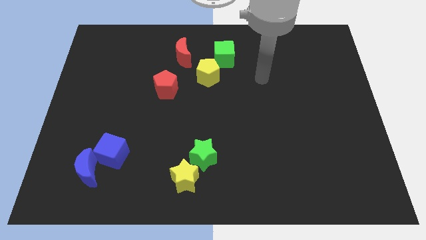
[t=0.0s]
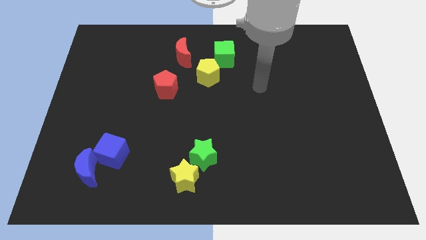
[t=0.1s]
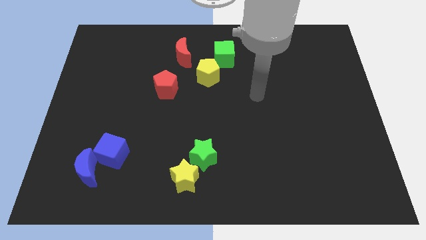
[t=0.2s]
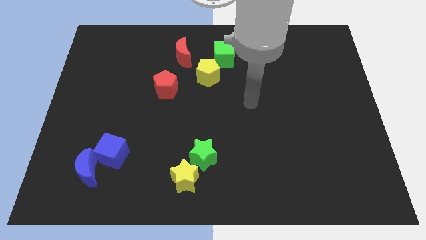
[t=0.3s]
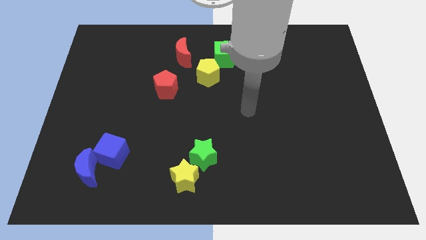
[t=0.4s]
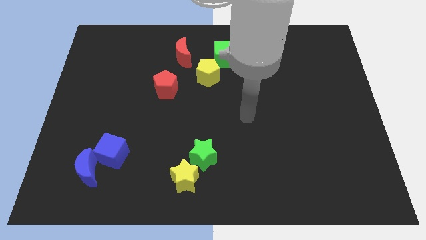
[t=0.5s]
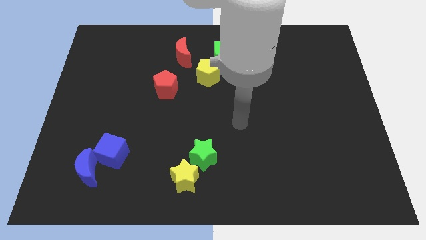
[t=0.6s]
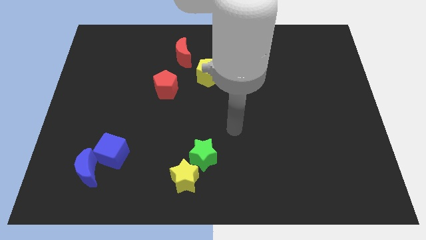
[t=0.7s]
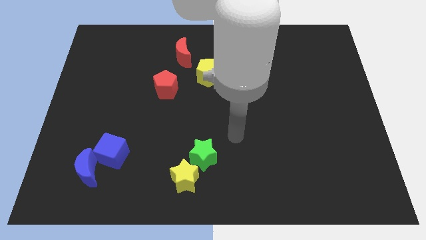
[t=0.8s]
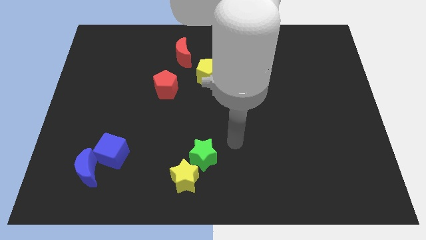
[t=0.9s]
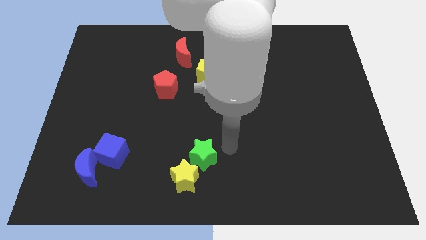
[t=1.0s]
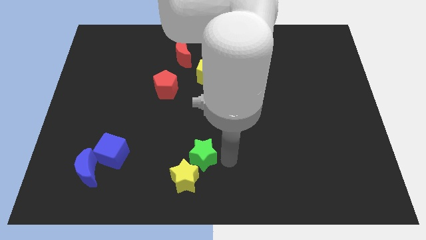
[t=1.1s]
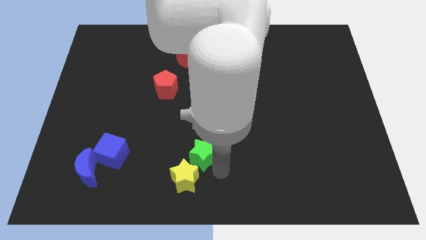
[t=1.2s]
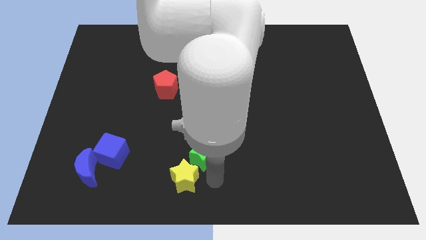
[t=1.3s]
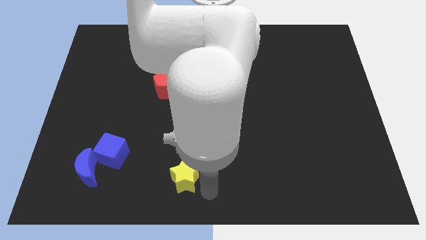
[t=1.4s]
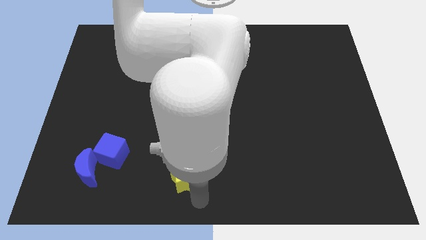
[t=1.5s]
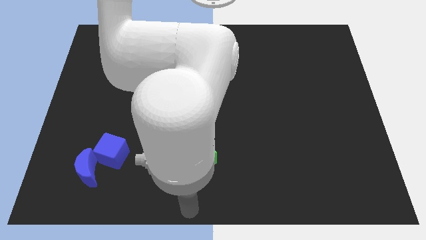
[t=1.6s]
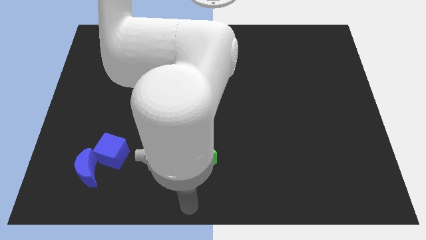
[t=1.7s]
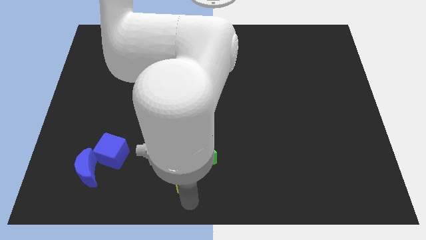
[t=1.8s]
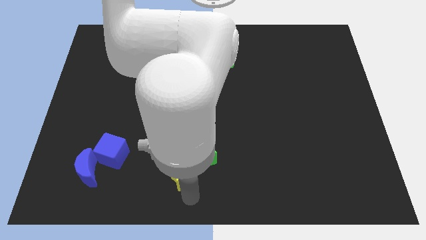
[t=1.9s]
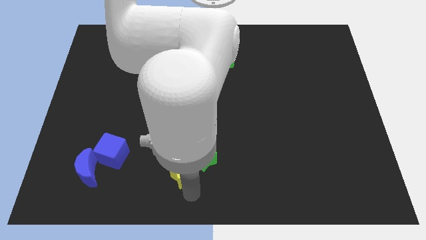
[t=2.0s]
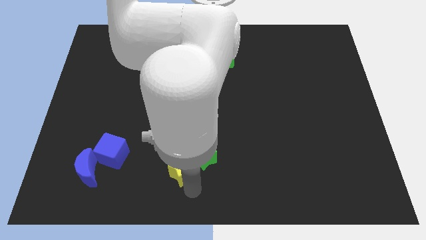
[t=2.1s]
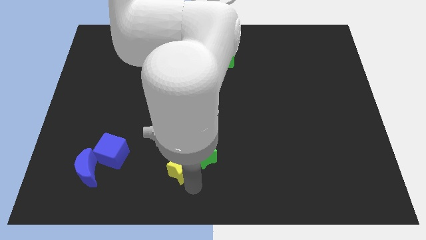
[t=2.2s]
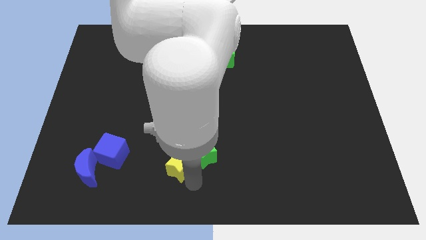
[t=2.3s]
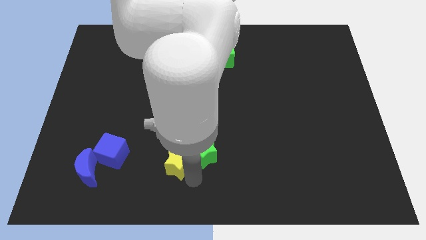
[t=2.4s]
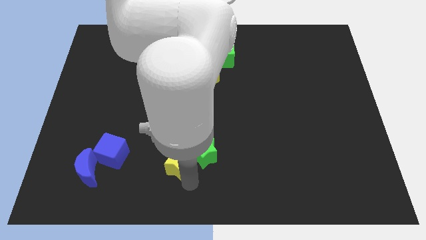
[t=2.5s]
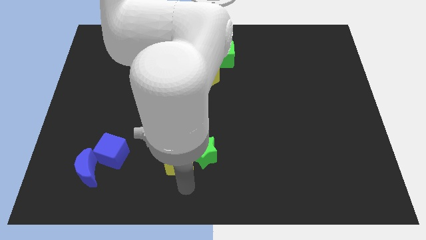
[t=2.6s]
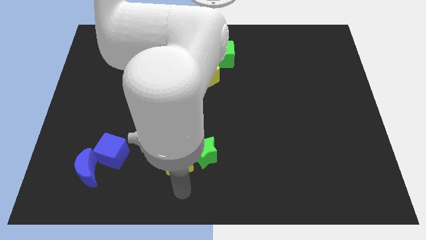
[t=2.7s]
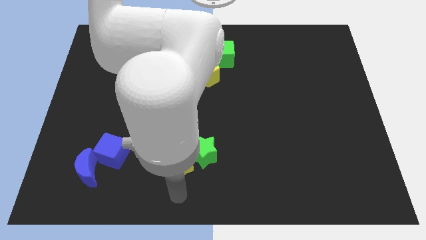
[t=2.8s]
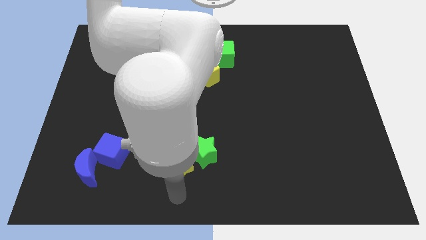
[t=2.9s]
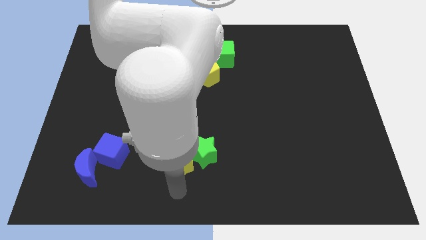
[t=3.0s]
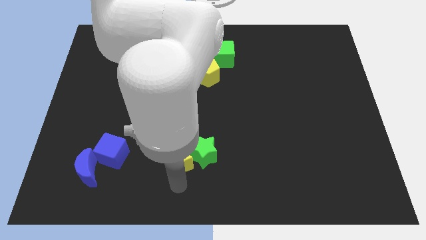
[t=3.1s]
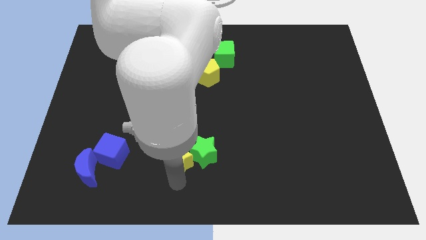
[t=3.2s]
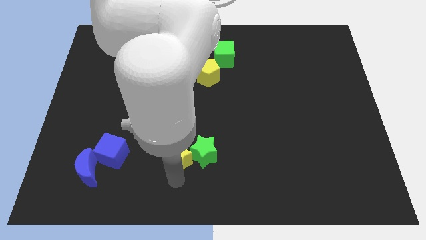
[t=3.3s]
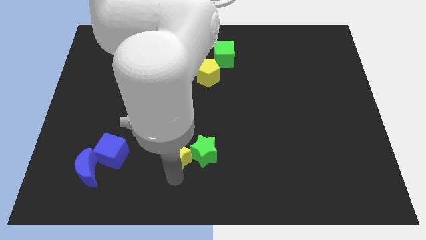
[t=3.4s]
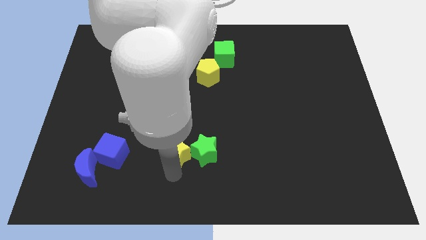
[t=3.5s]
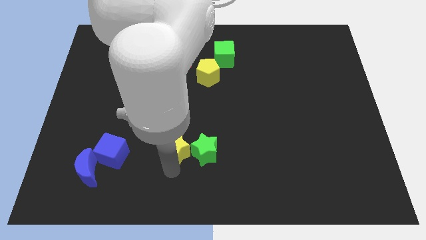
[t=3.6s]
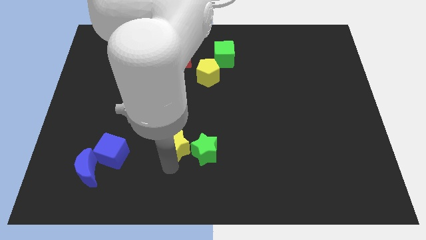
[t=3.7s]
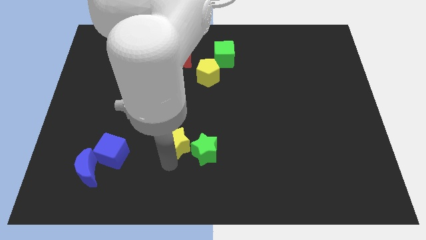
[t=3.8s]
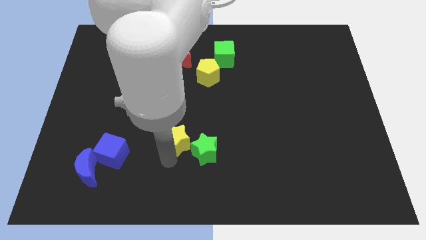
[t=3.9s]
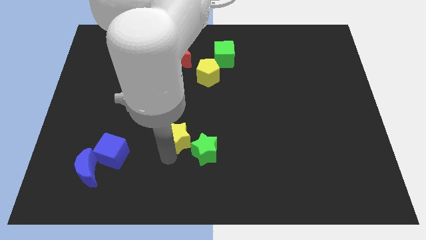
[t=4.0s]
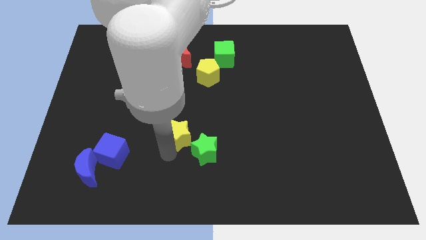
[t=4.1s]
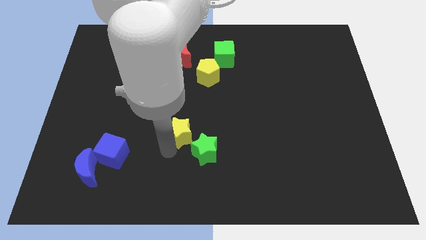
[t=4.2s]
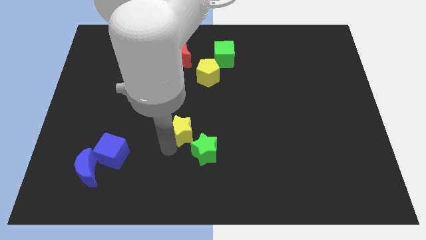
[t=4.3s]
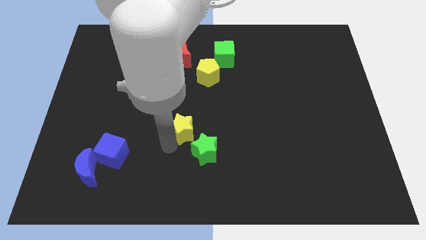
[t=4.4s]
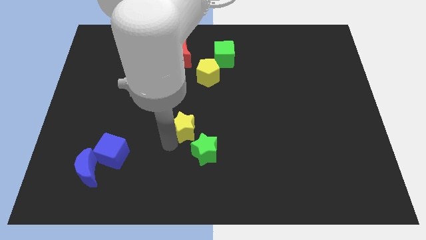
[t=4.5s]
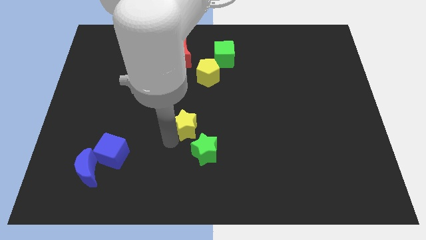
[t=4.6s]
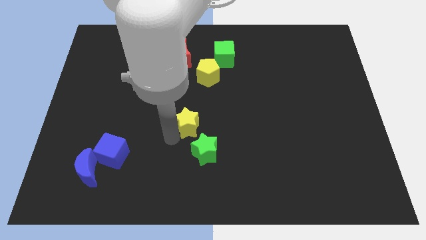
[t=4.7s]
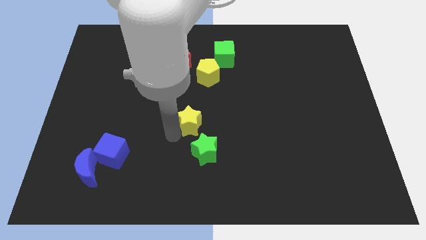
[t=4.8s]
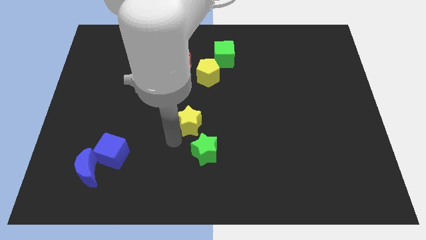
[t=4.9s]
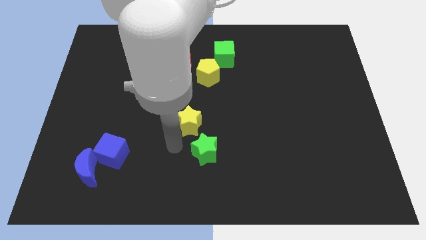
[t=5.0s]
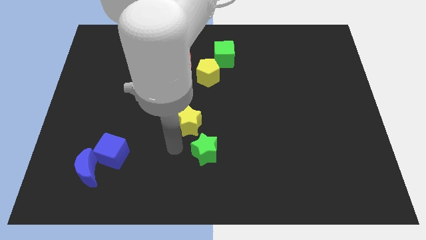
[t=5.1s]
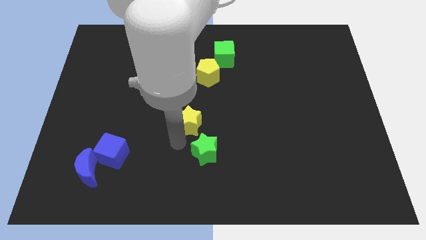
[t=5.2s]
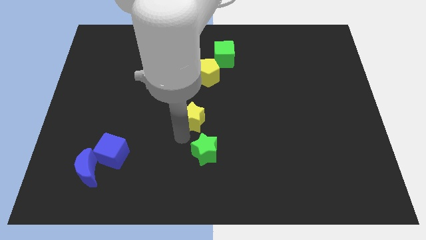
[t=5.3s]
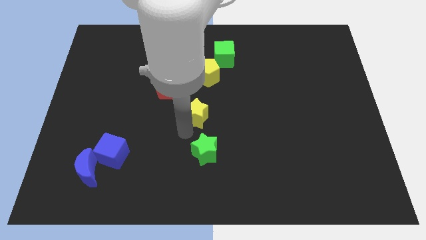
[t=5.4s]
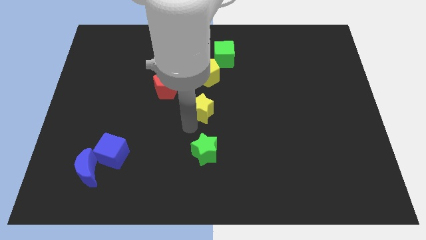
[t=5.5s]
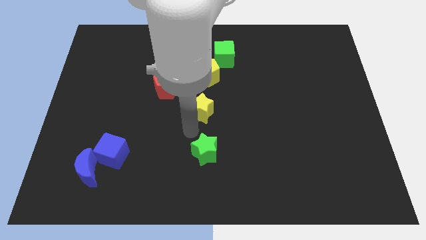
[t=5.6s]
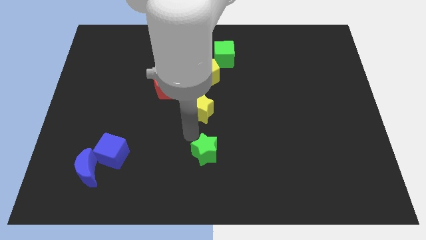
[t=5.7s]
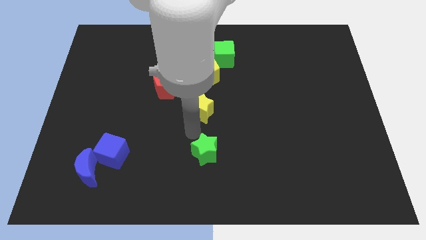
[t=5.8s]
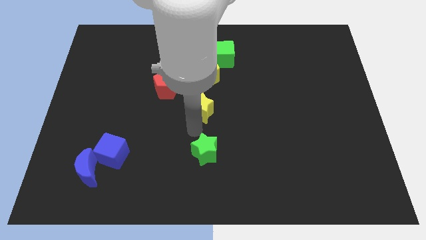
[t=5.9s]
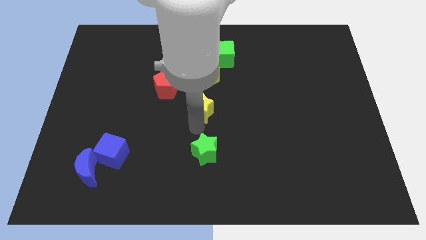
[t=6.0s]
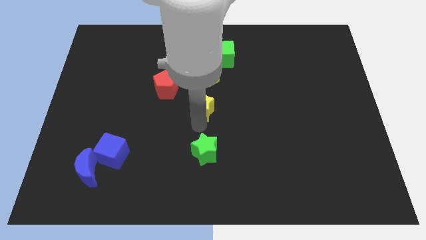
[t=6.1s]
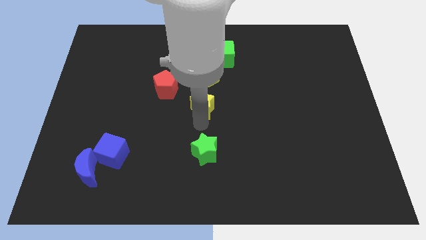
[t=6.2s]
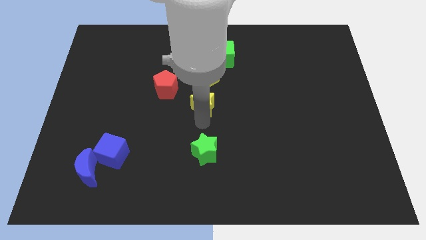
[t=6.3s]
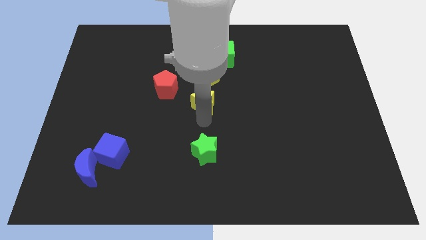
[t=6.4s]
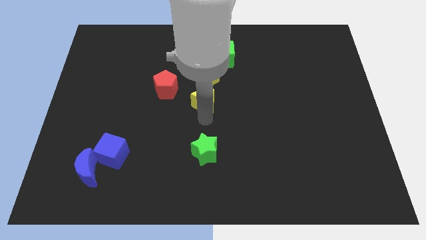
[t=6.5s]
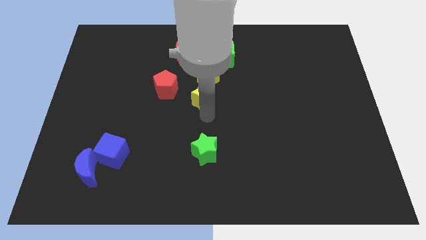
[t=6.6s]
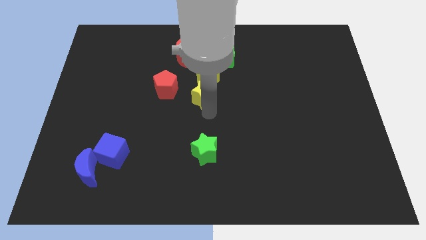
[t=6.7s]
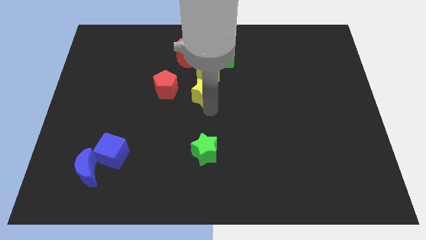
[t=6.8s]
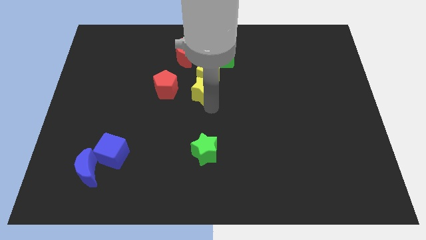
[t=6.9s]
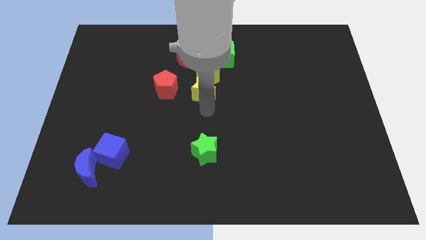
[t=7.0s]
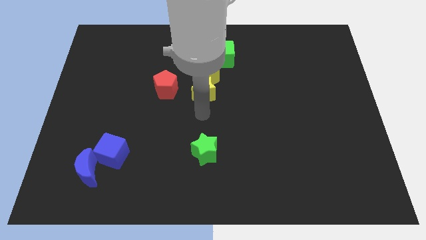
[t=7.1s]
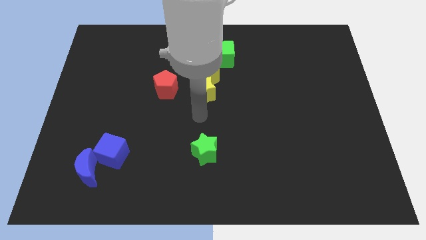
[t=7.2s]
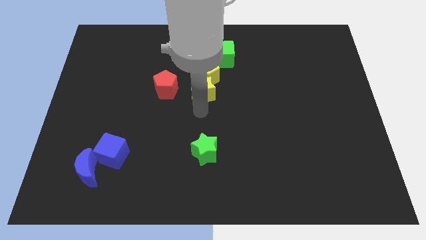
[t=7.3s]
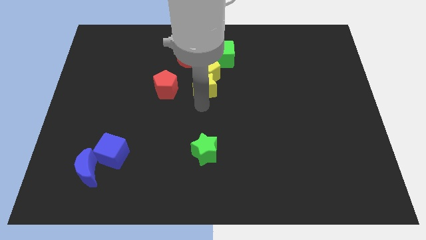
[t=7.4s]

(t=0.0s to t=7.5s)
push the yellow star towards the yellow pentagon
